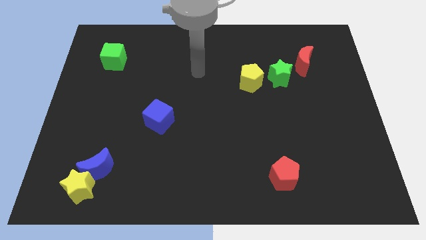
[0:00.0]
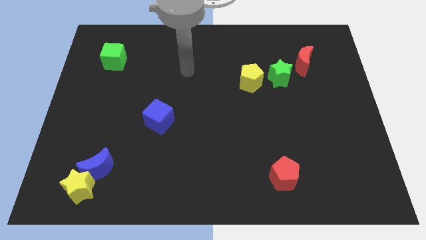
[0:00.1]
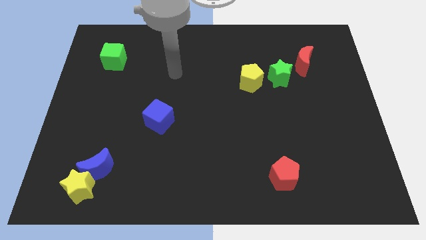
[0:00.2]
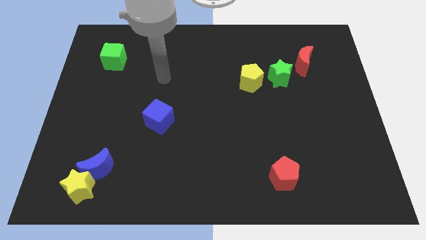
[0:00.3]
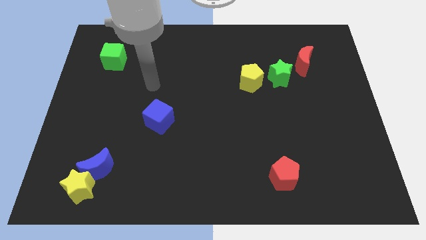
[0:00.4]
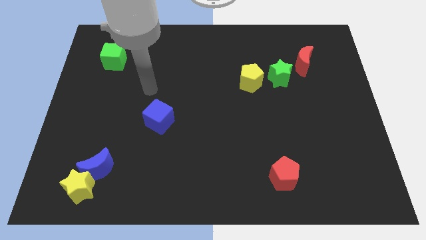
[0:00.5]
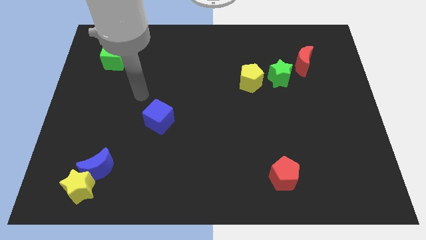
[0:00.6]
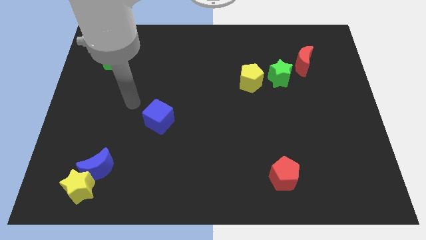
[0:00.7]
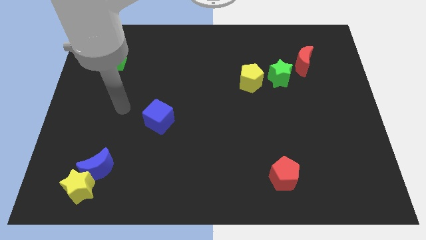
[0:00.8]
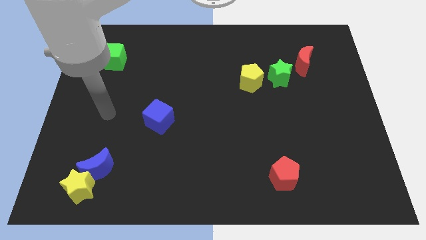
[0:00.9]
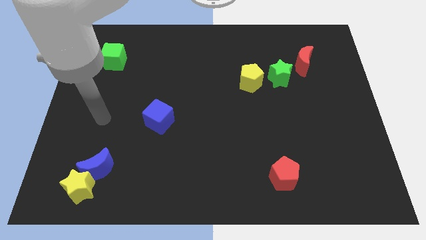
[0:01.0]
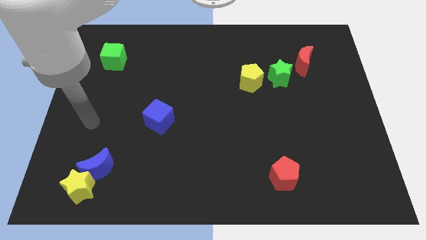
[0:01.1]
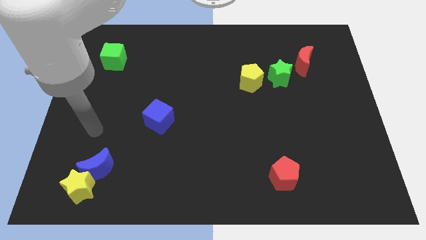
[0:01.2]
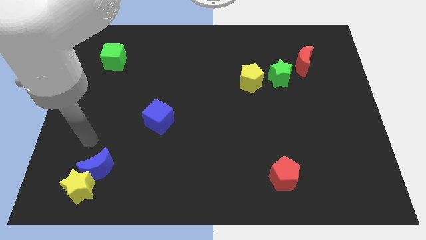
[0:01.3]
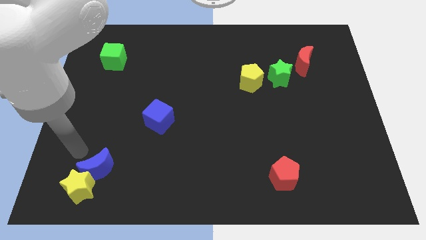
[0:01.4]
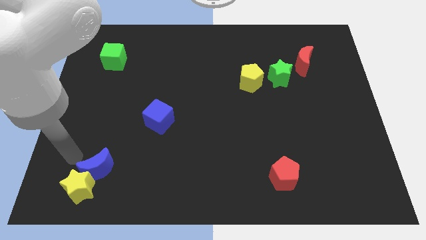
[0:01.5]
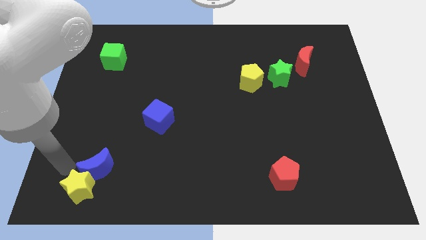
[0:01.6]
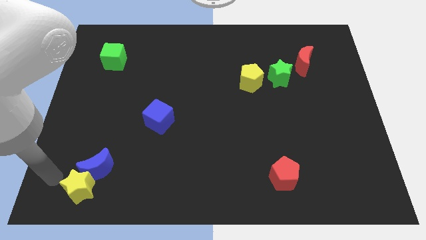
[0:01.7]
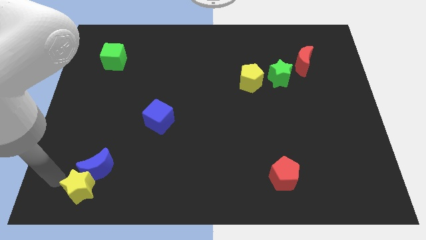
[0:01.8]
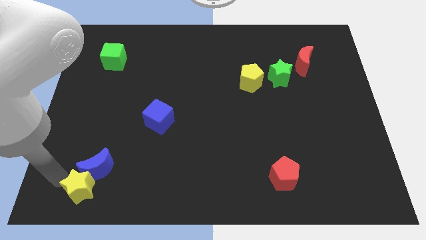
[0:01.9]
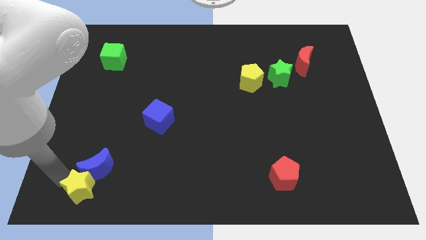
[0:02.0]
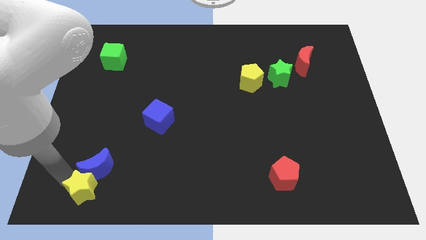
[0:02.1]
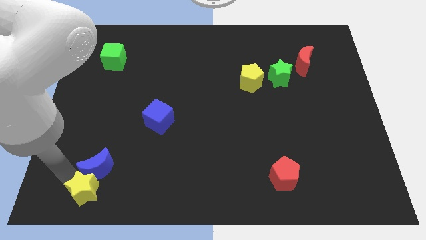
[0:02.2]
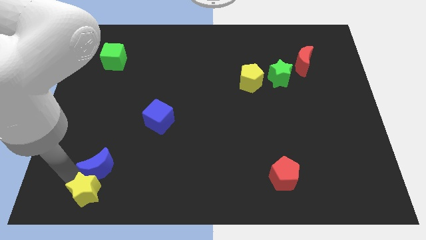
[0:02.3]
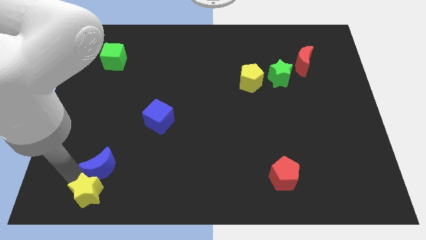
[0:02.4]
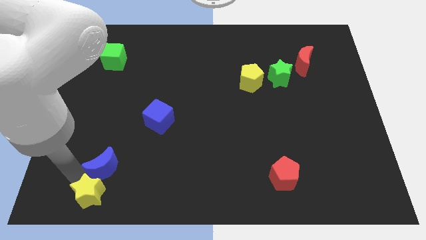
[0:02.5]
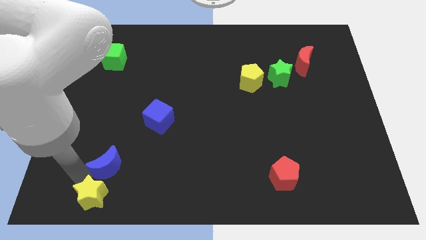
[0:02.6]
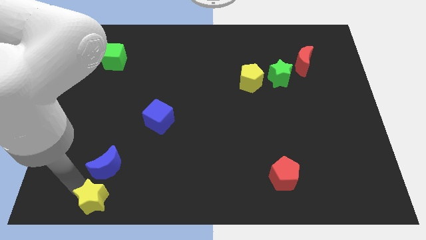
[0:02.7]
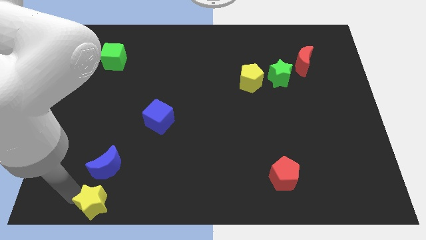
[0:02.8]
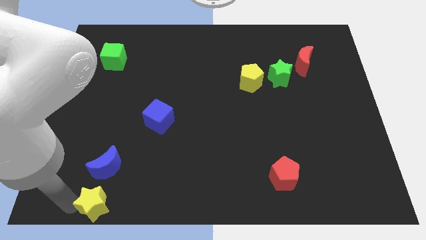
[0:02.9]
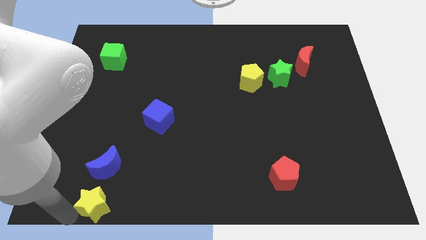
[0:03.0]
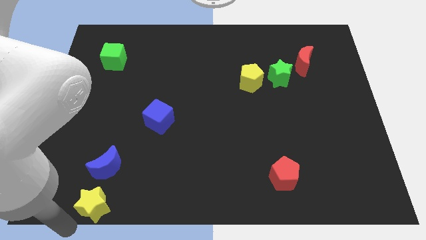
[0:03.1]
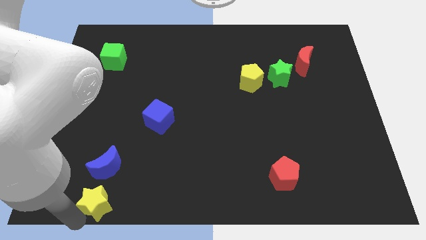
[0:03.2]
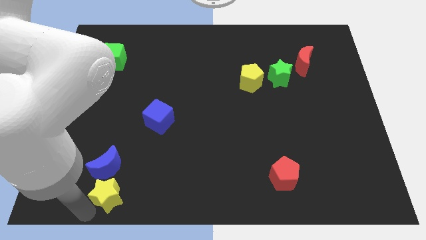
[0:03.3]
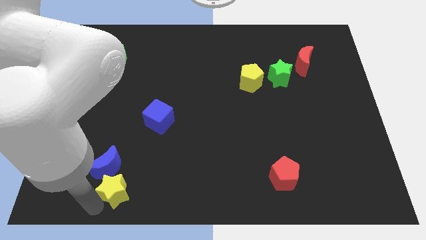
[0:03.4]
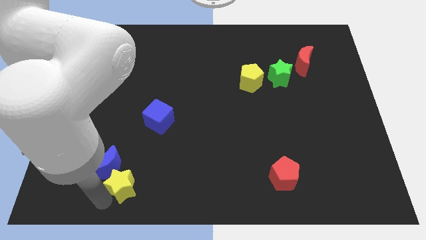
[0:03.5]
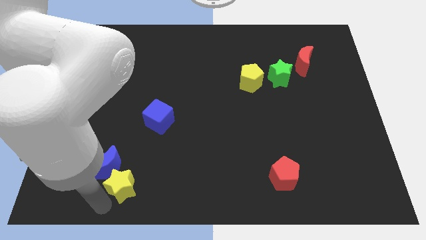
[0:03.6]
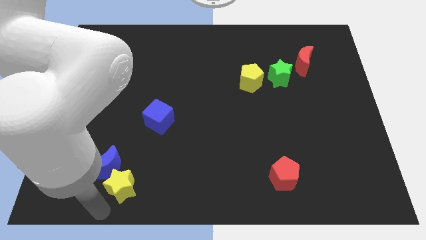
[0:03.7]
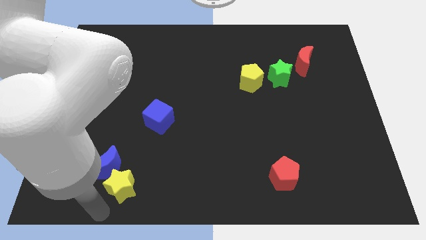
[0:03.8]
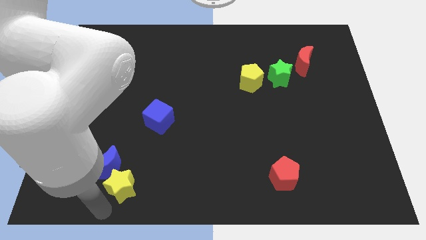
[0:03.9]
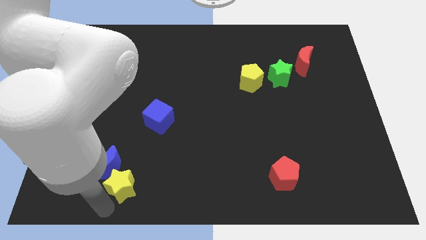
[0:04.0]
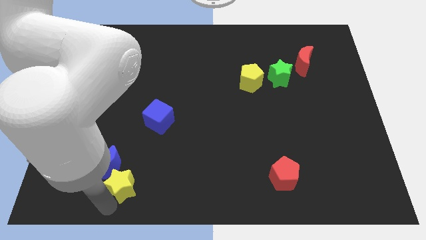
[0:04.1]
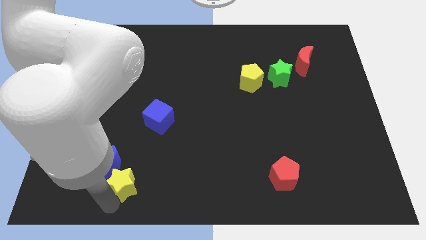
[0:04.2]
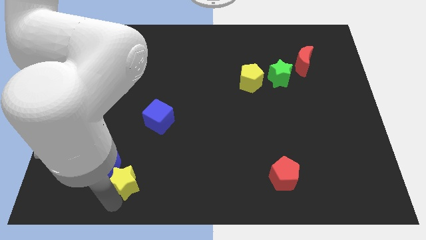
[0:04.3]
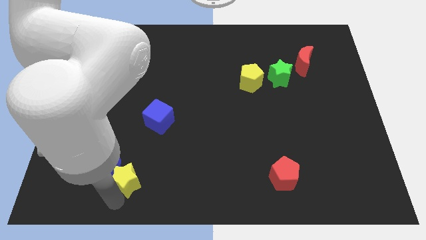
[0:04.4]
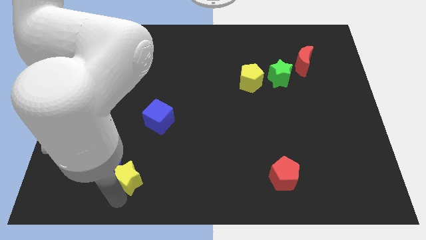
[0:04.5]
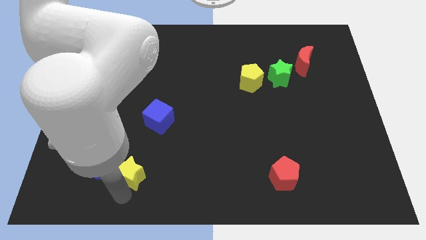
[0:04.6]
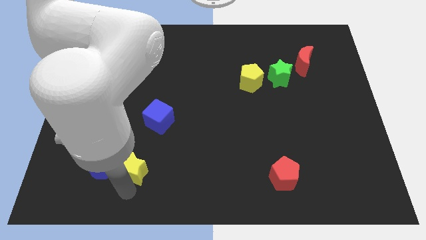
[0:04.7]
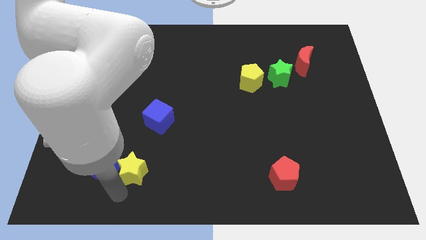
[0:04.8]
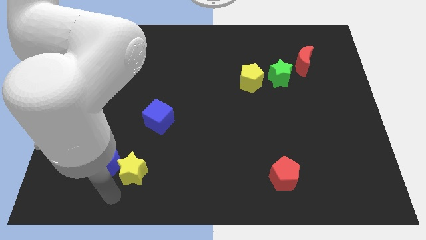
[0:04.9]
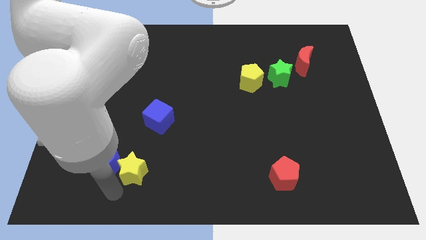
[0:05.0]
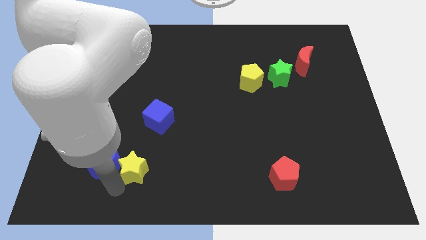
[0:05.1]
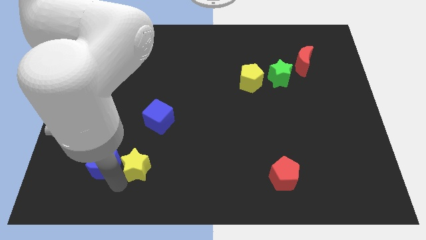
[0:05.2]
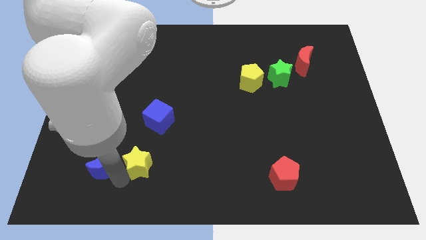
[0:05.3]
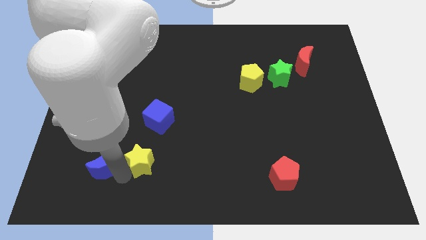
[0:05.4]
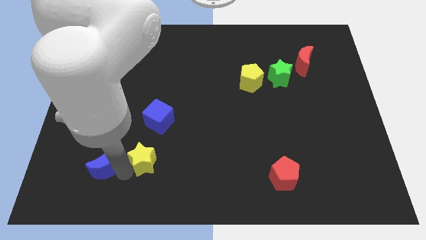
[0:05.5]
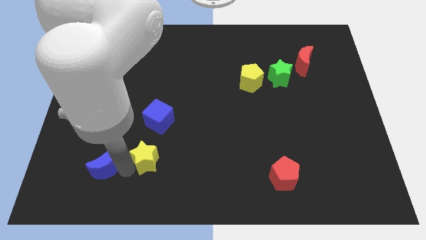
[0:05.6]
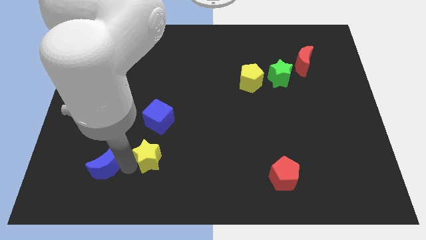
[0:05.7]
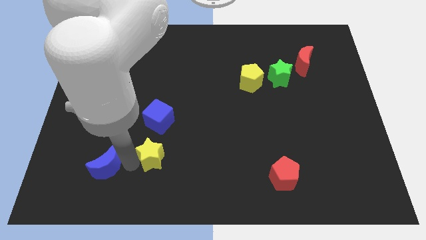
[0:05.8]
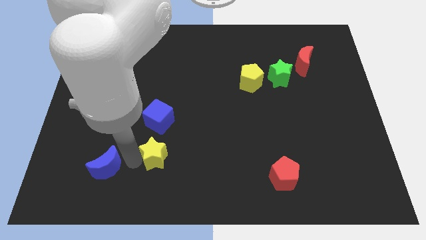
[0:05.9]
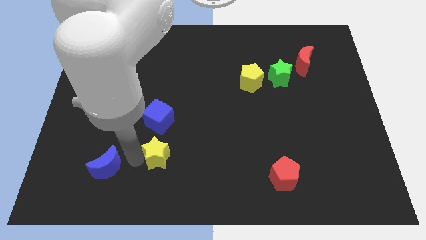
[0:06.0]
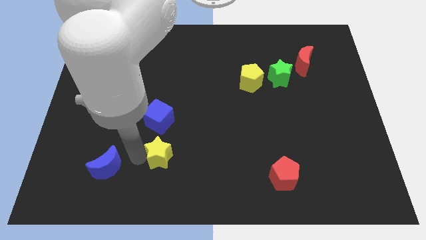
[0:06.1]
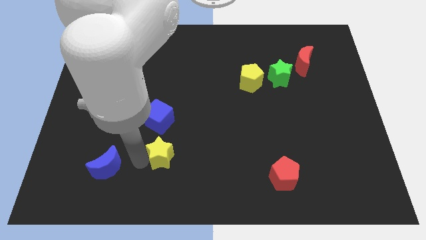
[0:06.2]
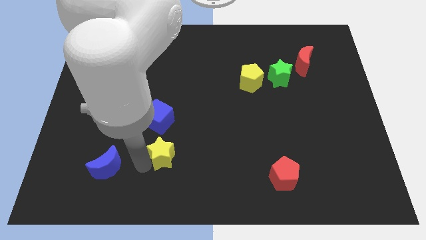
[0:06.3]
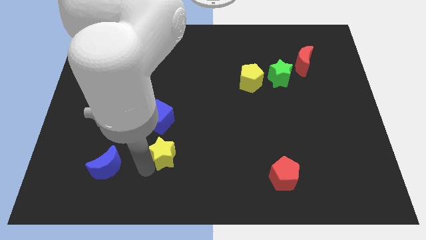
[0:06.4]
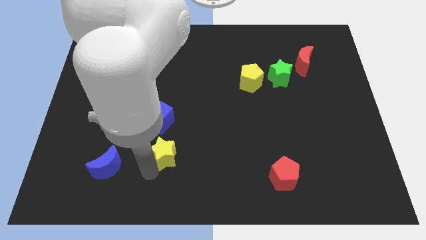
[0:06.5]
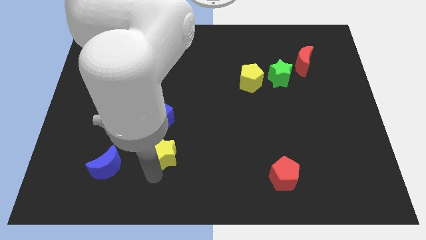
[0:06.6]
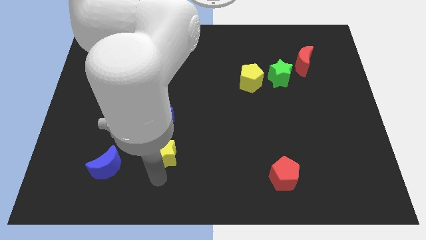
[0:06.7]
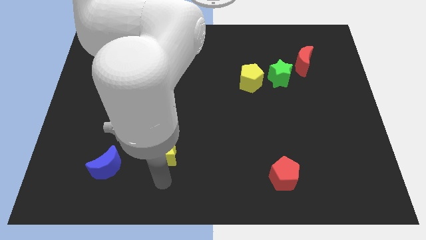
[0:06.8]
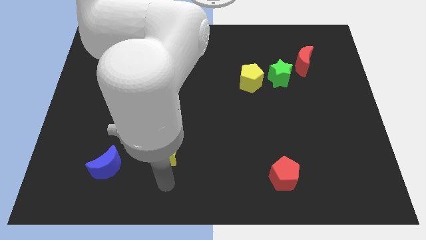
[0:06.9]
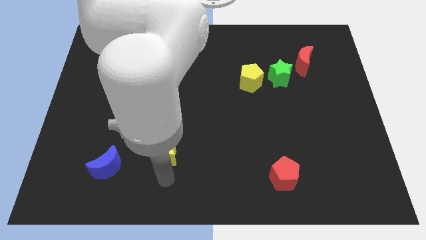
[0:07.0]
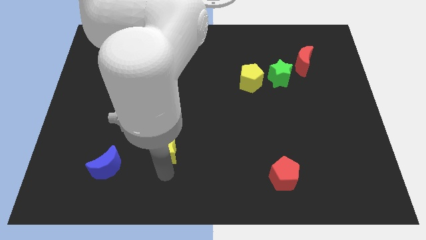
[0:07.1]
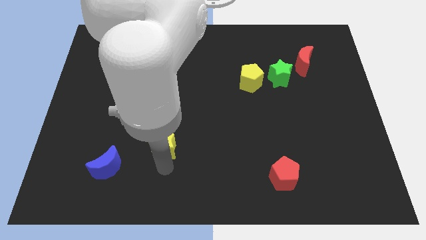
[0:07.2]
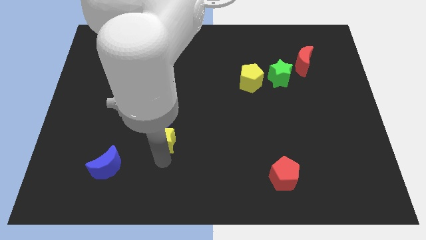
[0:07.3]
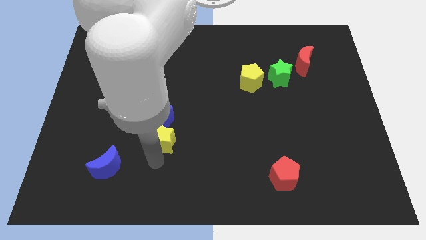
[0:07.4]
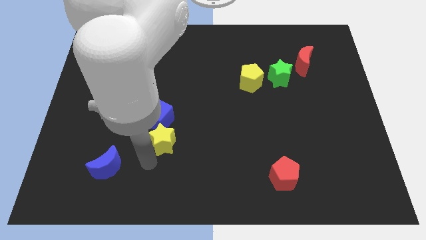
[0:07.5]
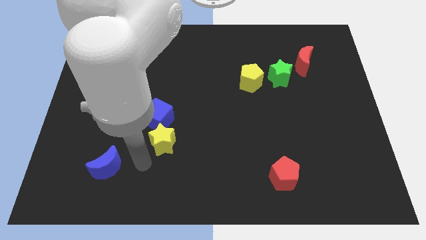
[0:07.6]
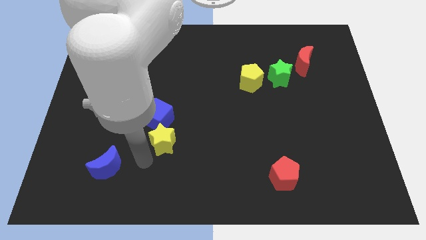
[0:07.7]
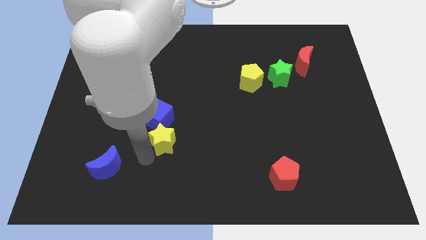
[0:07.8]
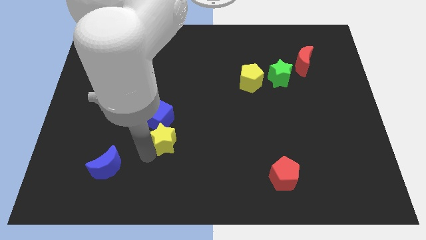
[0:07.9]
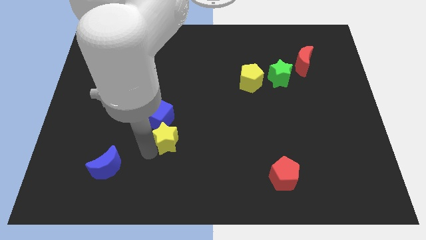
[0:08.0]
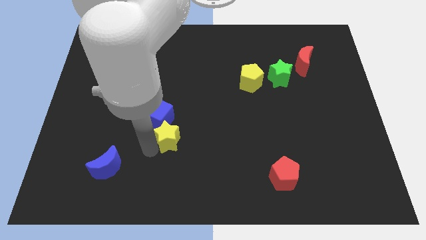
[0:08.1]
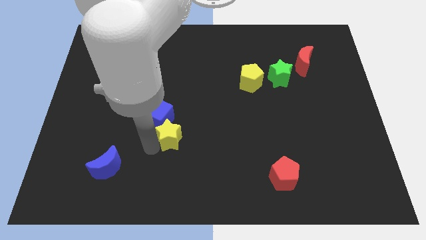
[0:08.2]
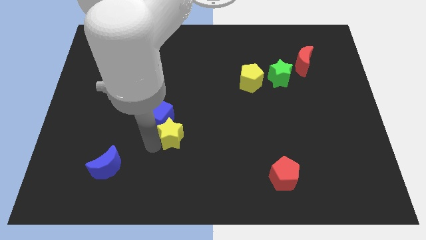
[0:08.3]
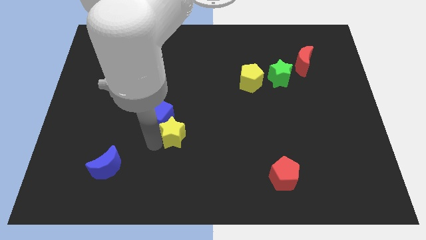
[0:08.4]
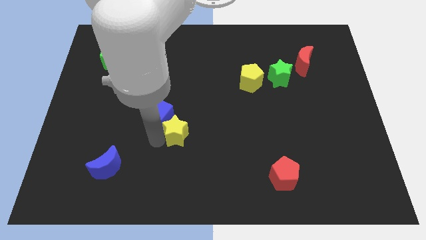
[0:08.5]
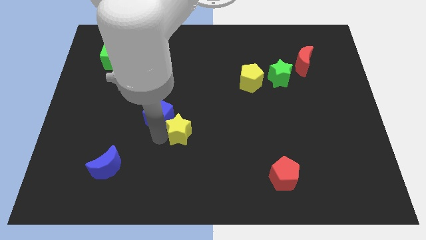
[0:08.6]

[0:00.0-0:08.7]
push the yellow star to the middle
